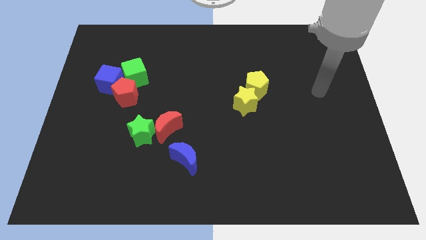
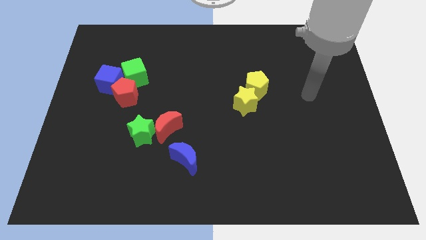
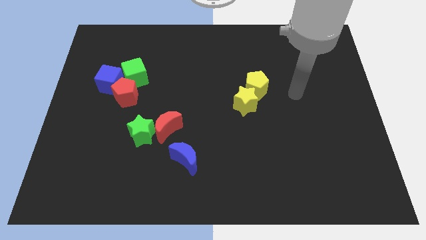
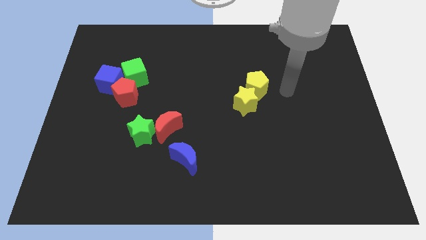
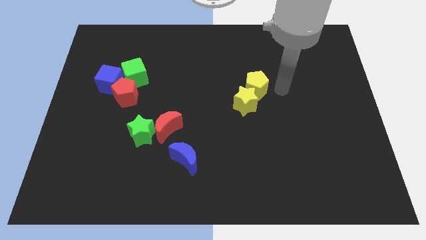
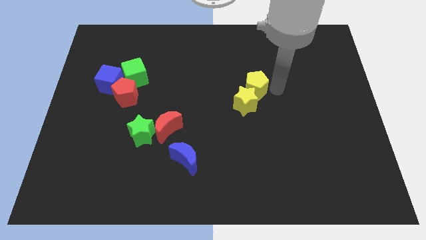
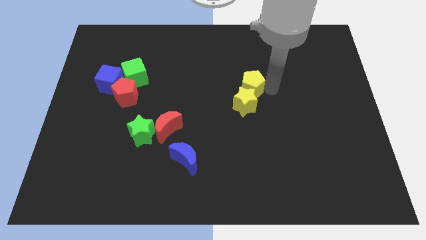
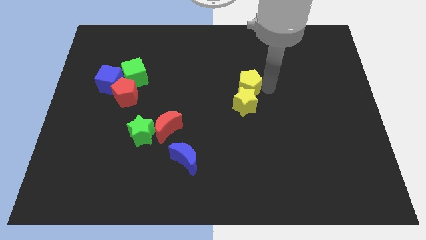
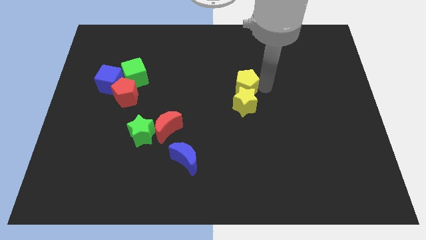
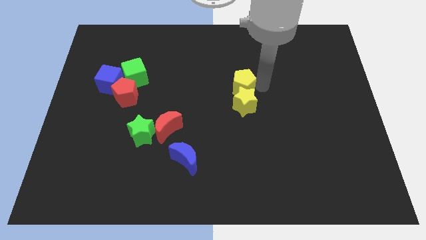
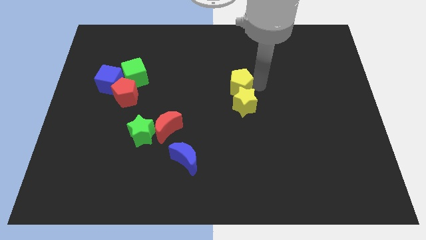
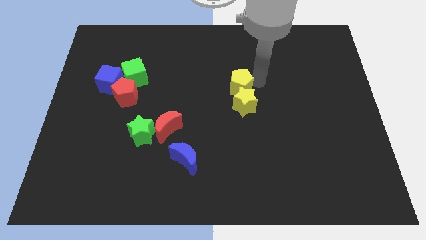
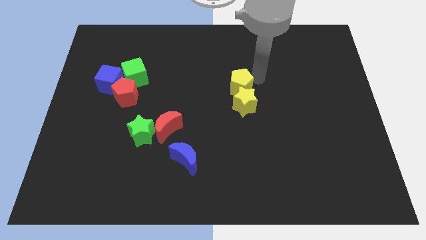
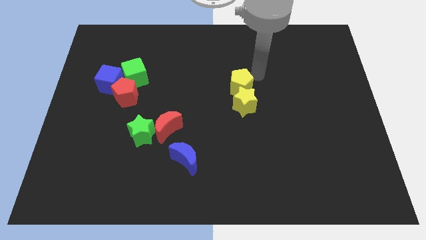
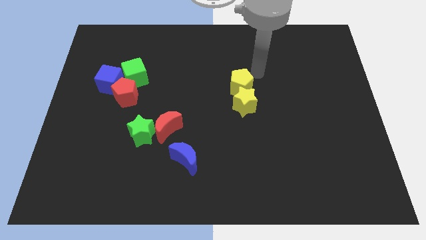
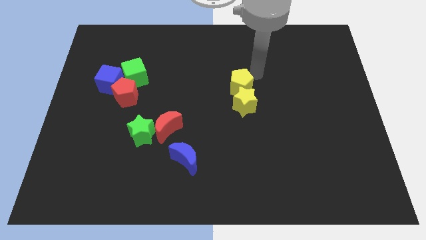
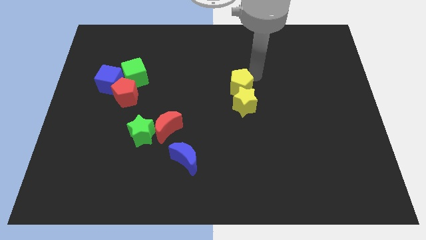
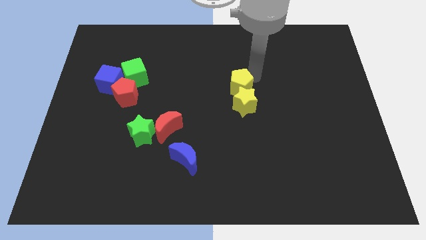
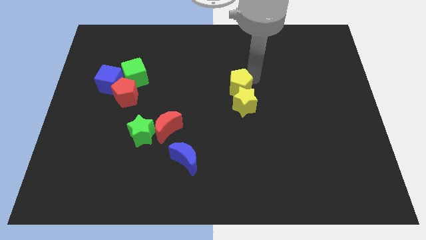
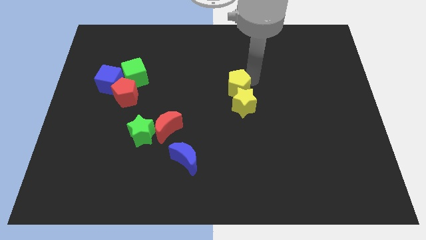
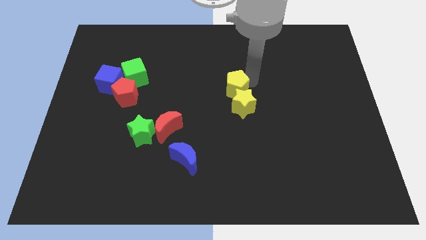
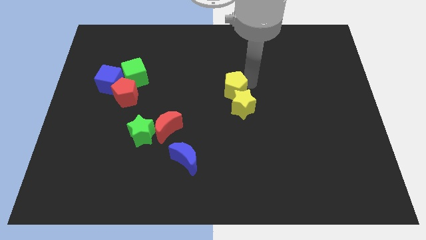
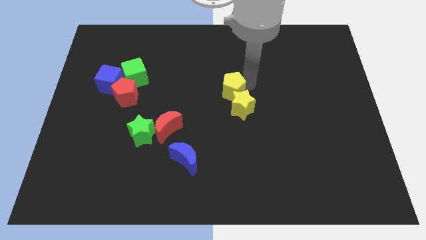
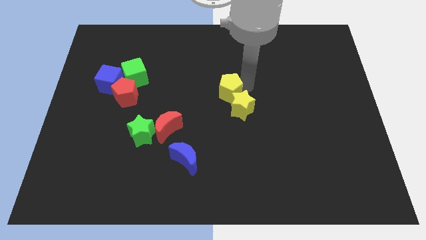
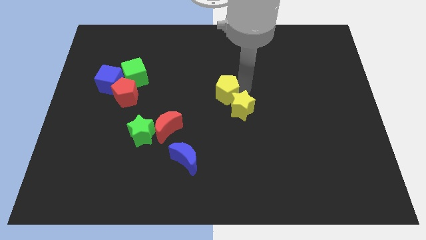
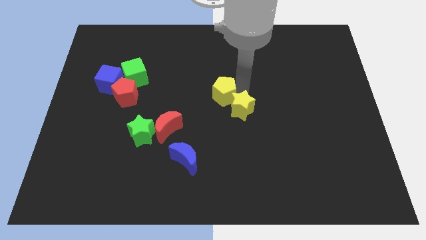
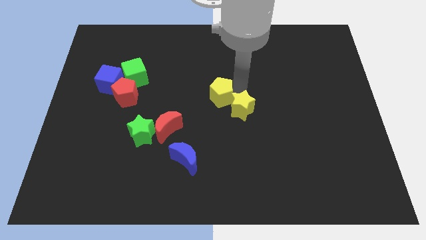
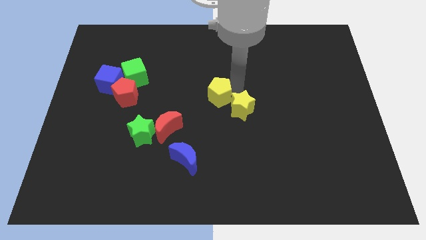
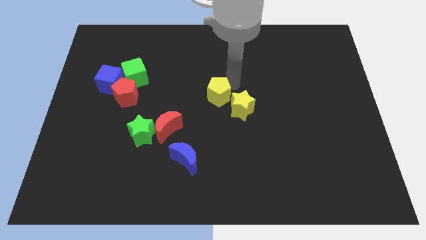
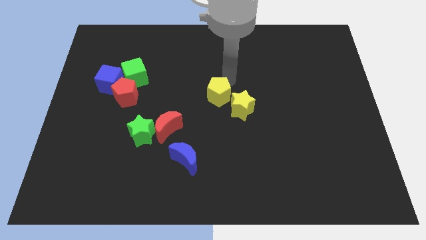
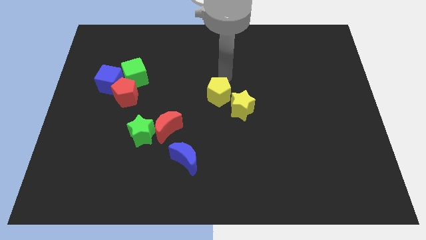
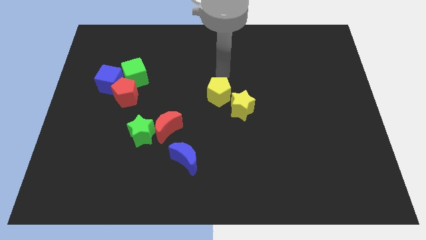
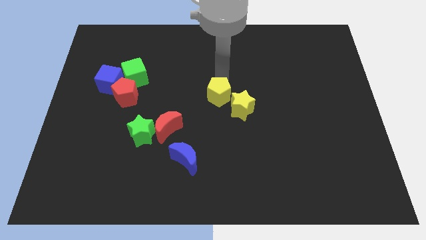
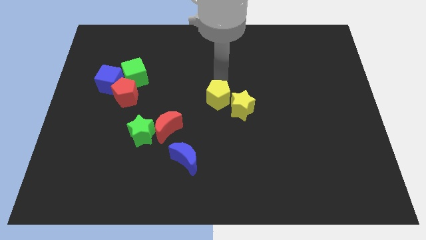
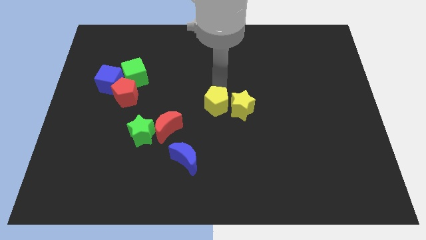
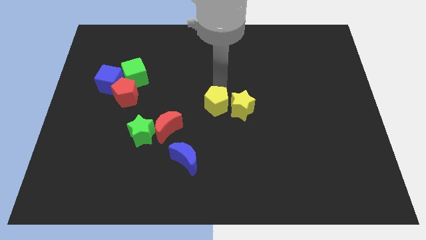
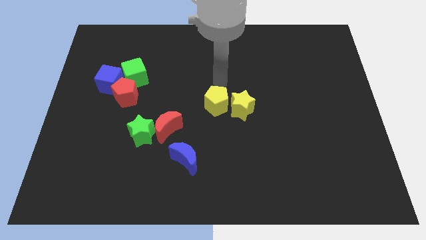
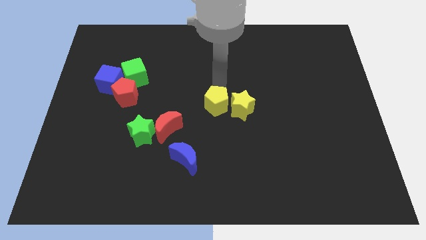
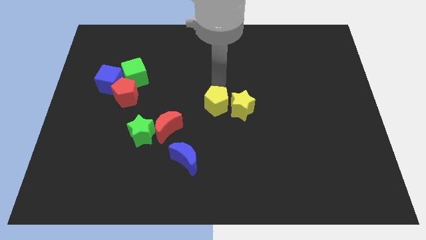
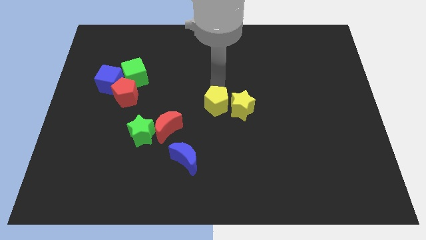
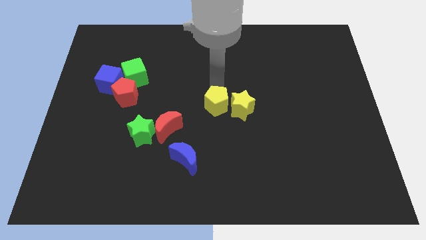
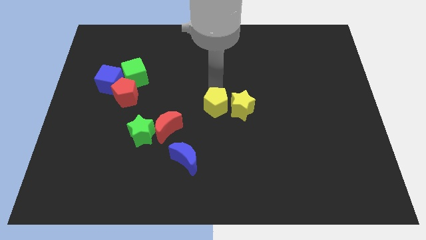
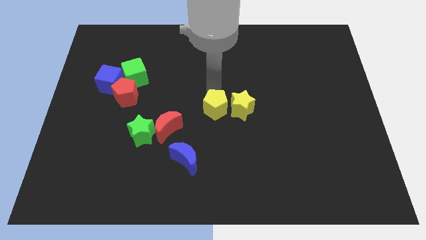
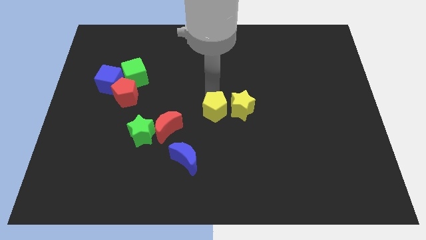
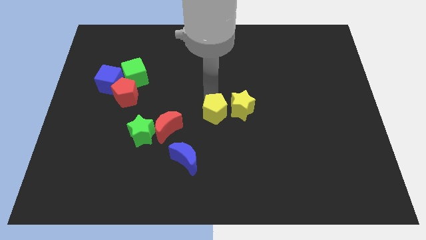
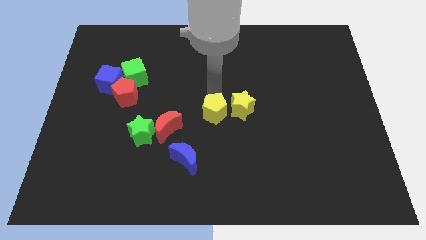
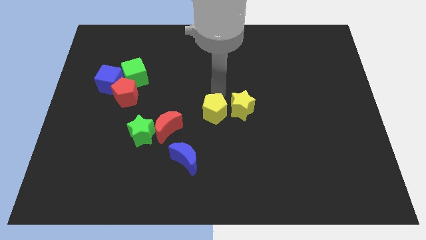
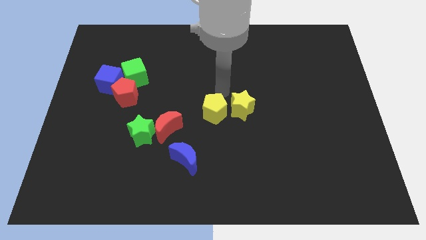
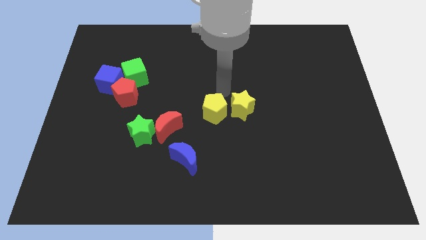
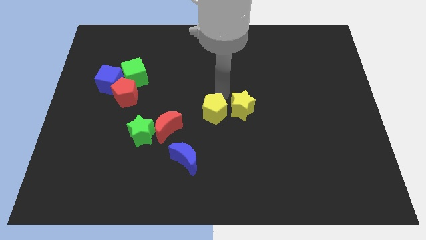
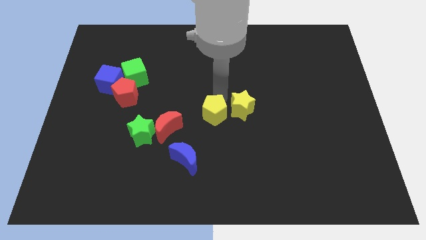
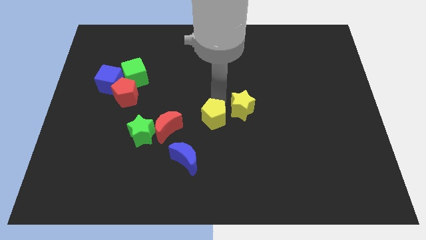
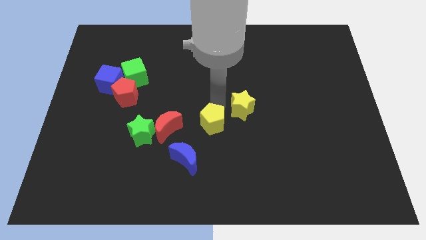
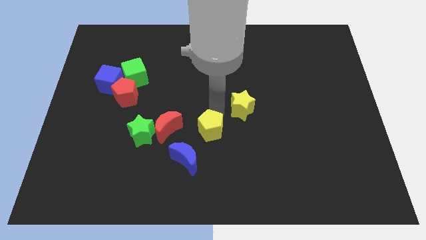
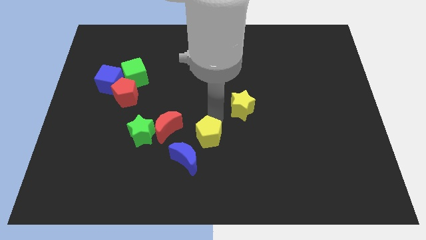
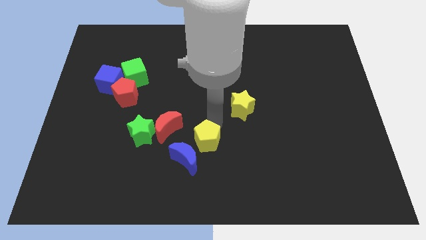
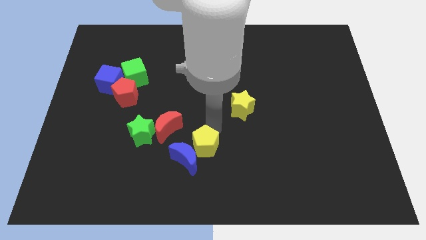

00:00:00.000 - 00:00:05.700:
push the yellow pentagon to the blue moon

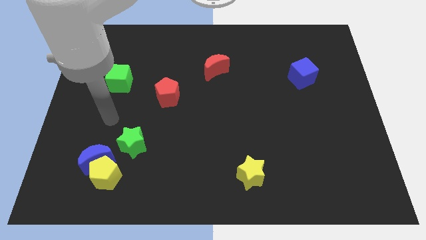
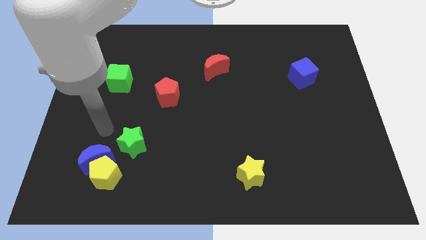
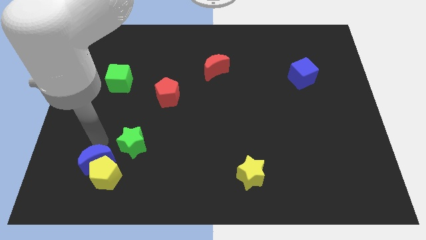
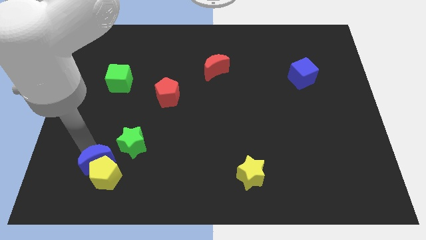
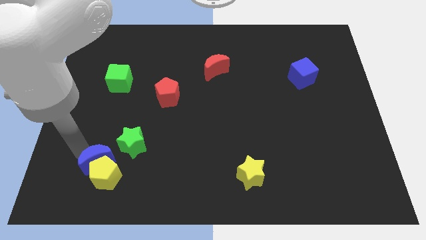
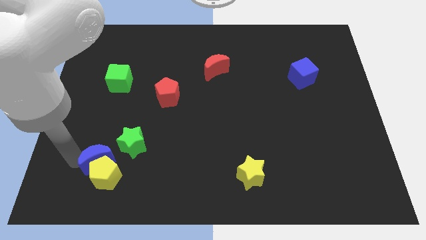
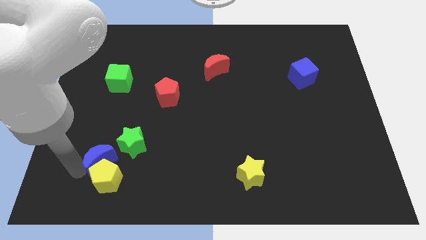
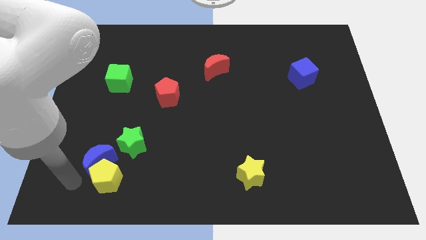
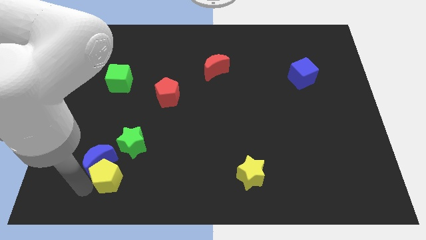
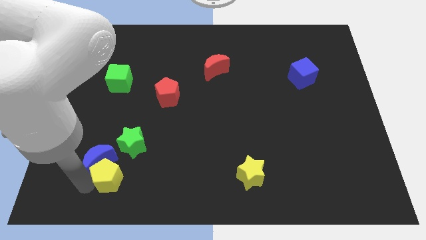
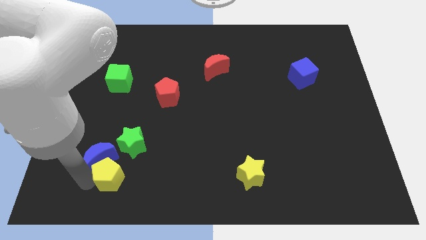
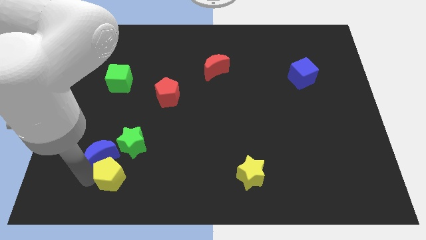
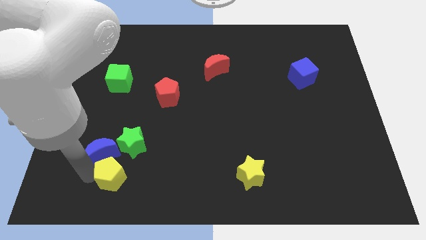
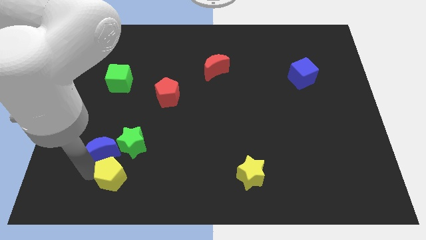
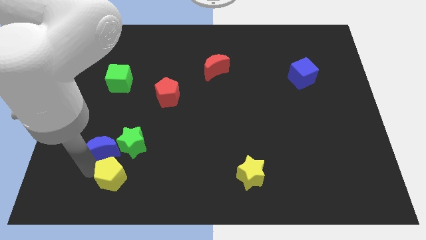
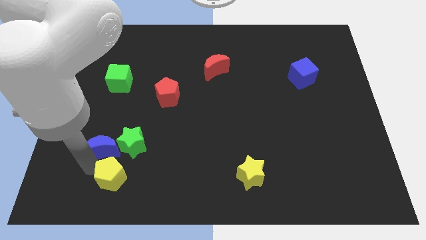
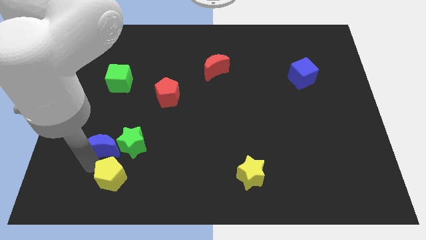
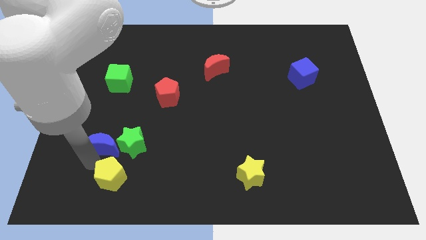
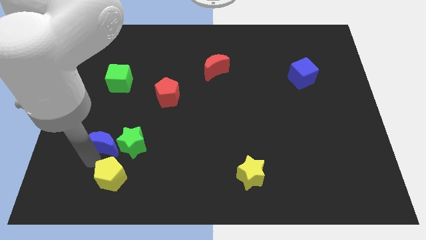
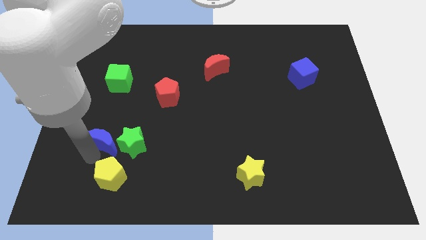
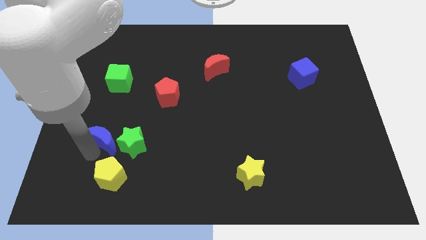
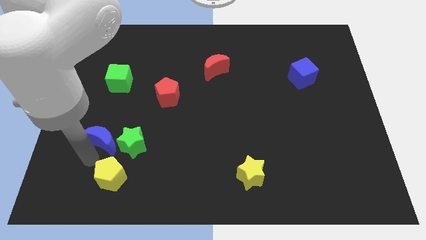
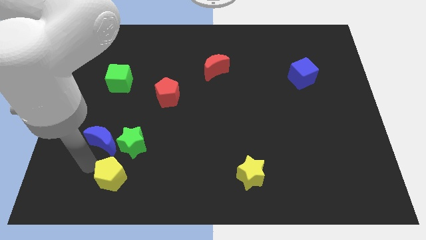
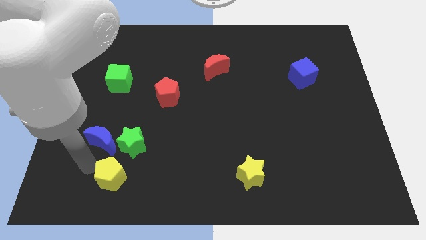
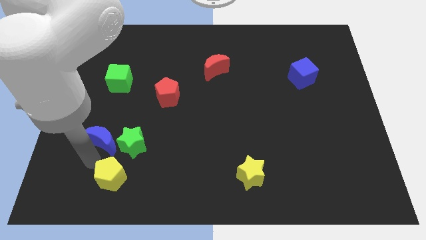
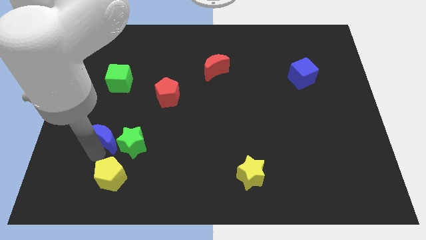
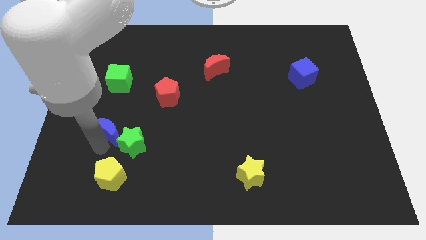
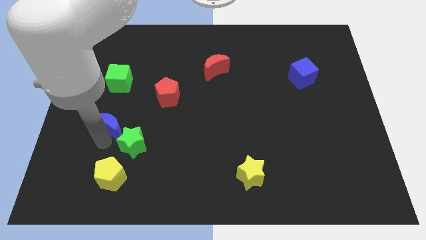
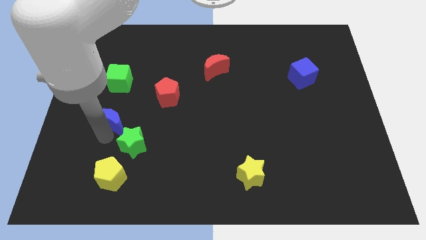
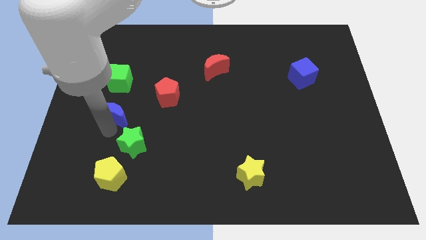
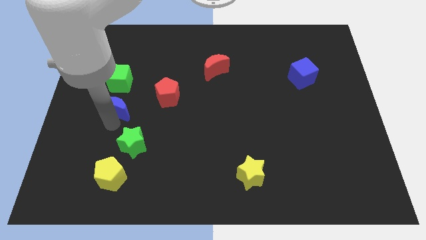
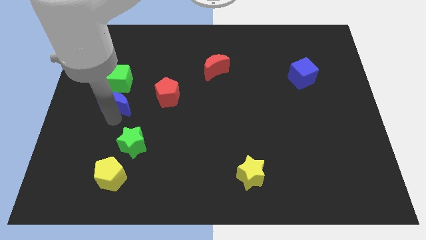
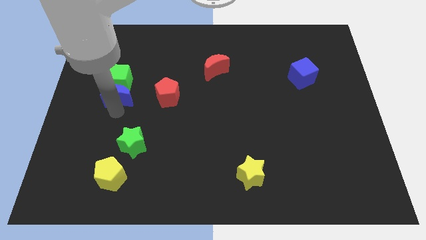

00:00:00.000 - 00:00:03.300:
push the blue moon to the green cube
